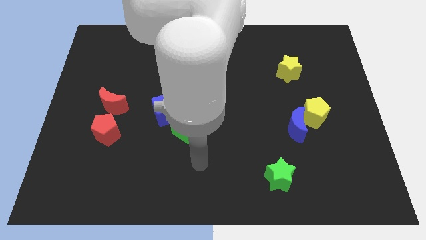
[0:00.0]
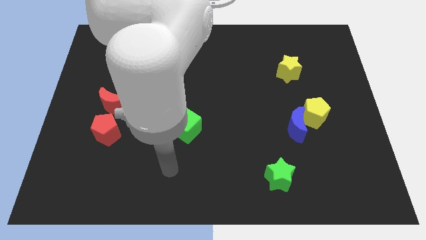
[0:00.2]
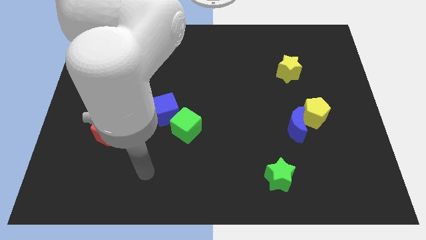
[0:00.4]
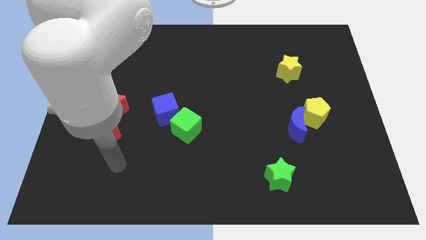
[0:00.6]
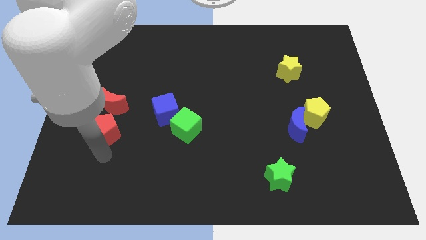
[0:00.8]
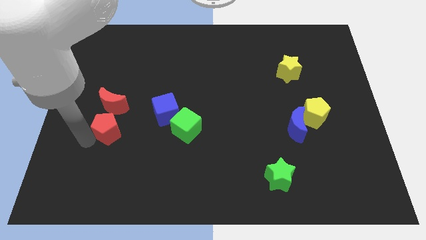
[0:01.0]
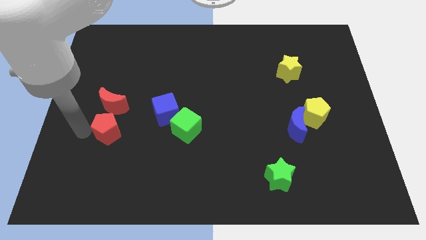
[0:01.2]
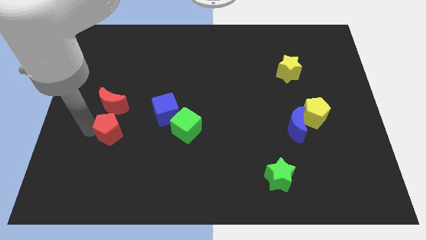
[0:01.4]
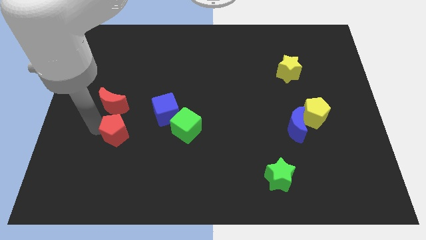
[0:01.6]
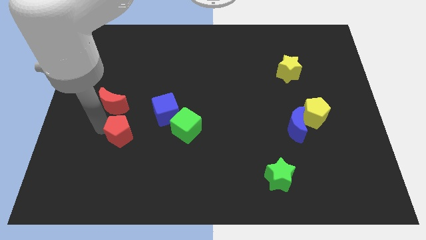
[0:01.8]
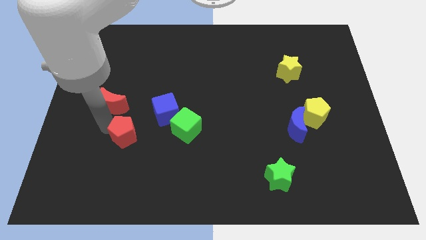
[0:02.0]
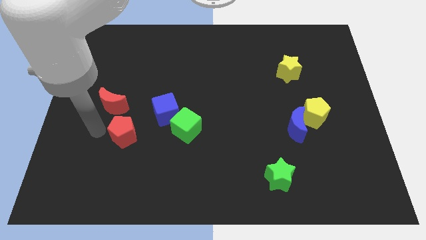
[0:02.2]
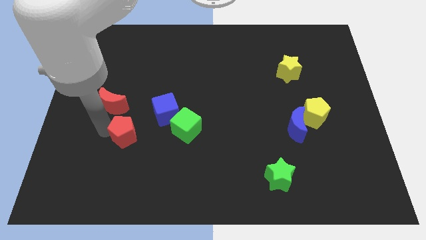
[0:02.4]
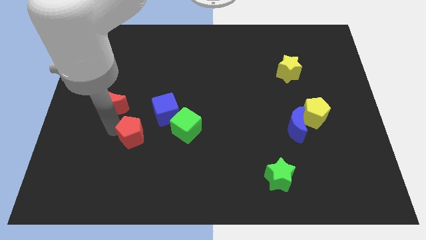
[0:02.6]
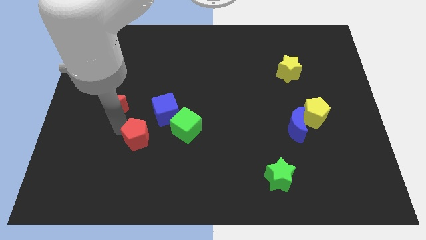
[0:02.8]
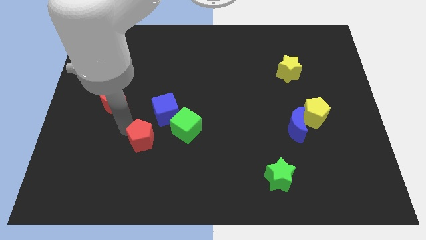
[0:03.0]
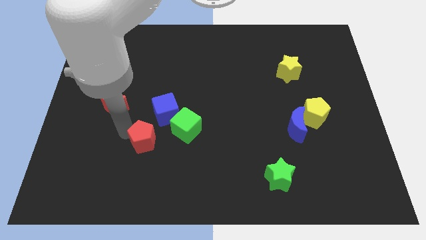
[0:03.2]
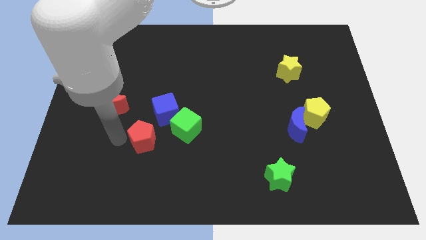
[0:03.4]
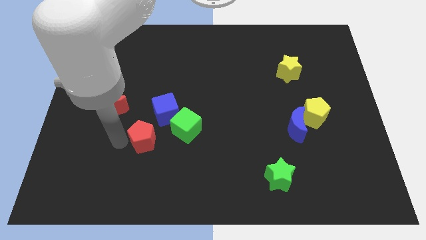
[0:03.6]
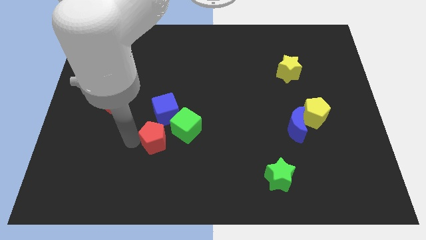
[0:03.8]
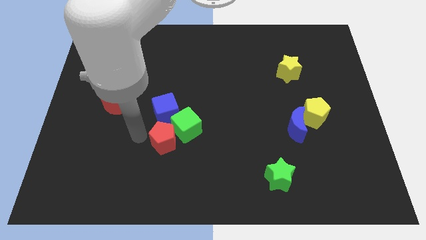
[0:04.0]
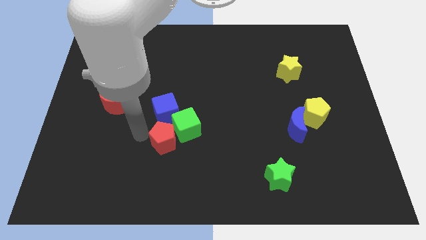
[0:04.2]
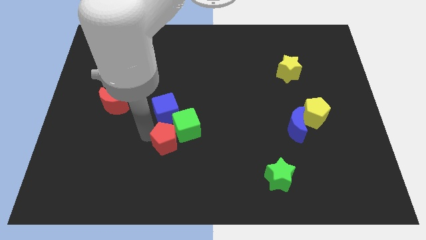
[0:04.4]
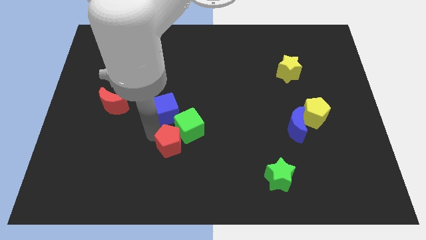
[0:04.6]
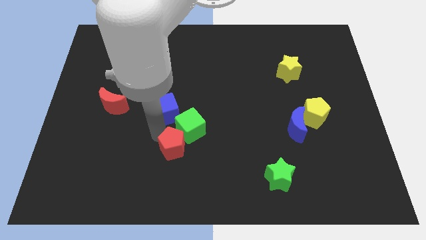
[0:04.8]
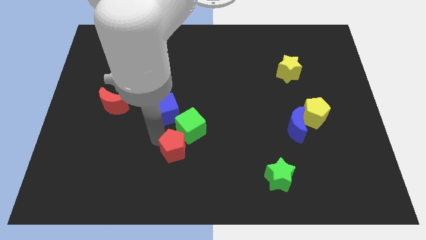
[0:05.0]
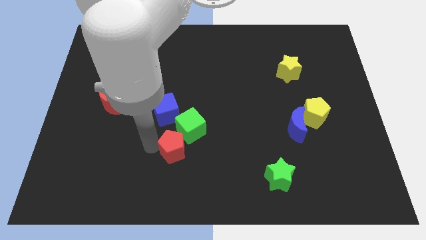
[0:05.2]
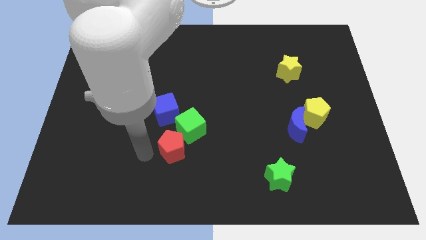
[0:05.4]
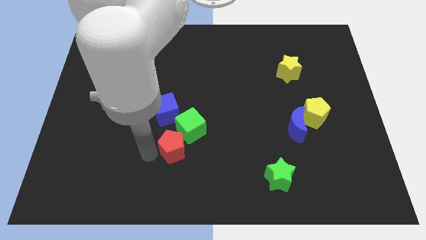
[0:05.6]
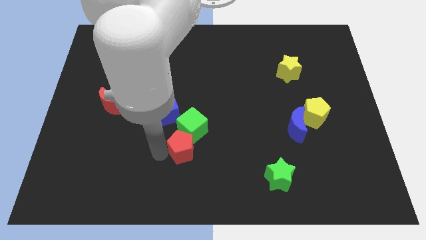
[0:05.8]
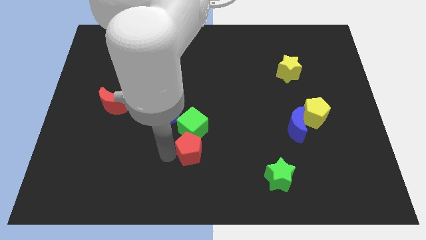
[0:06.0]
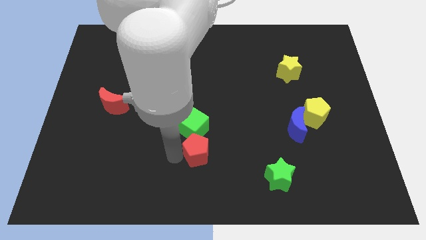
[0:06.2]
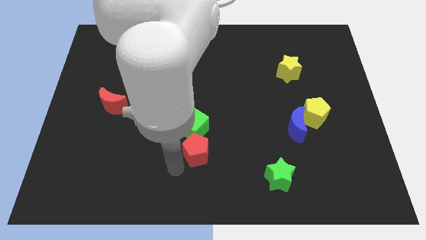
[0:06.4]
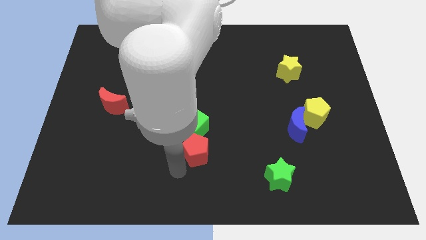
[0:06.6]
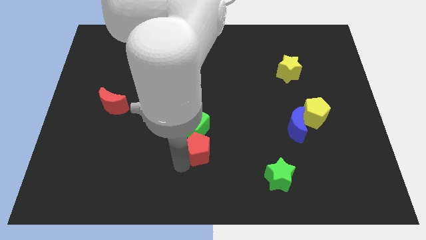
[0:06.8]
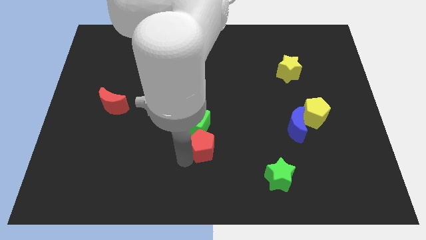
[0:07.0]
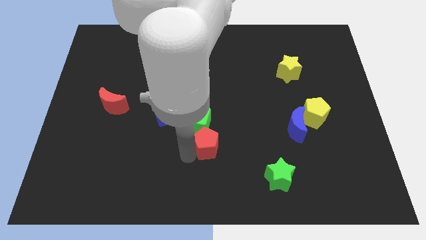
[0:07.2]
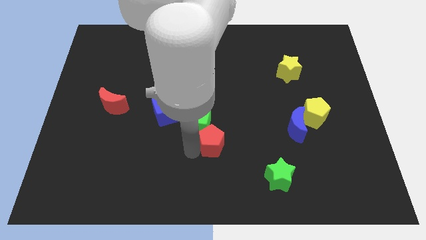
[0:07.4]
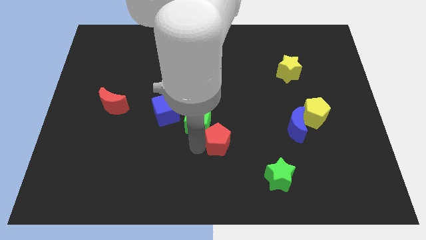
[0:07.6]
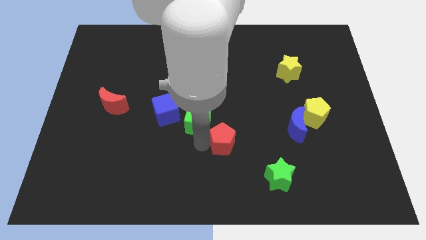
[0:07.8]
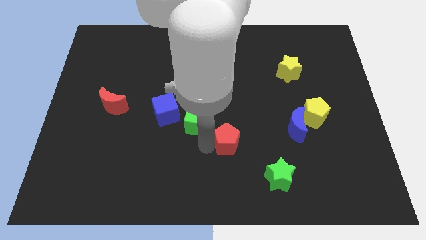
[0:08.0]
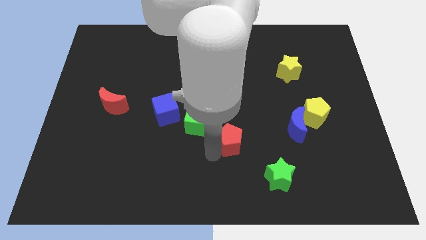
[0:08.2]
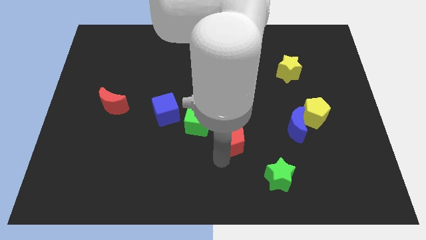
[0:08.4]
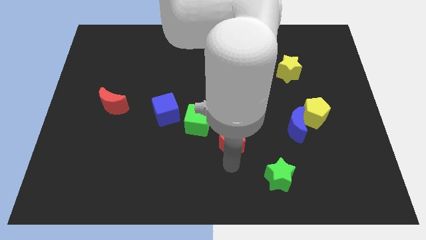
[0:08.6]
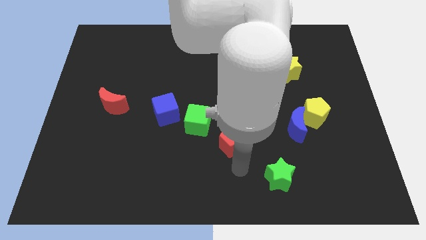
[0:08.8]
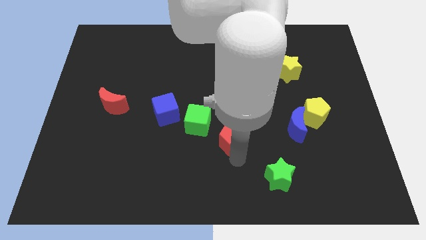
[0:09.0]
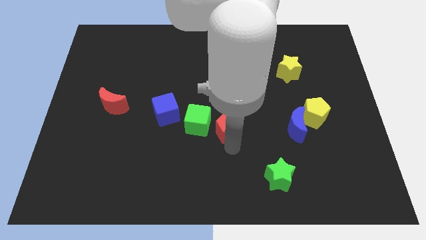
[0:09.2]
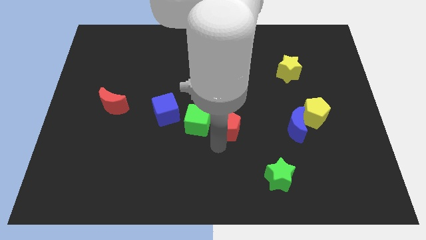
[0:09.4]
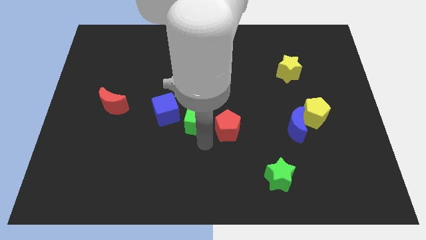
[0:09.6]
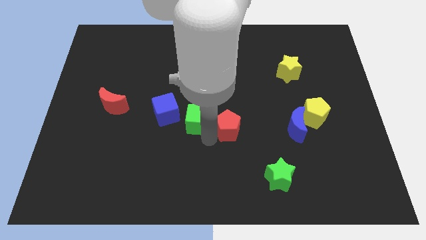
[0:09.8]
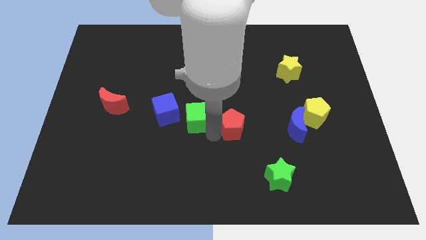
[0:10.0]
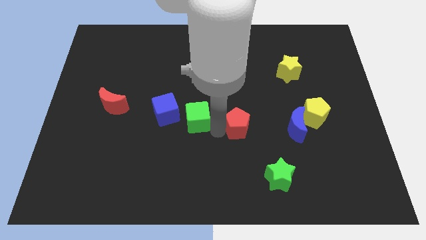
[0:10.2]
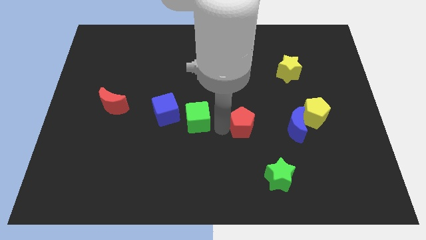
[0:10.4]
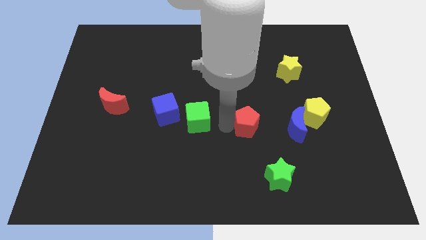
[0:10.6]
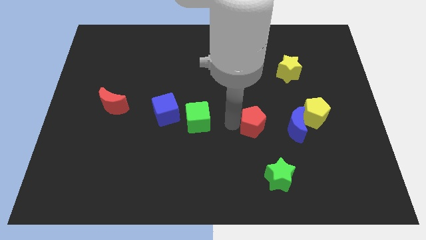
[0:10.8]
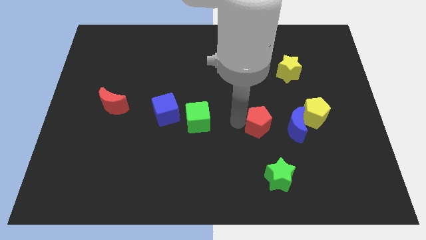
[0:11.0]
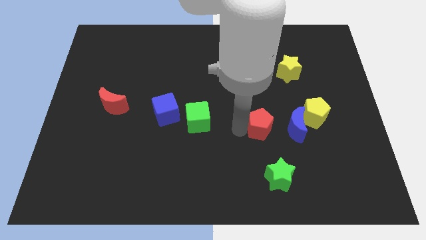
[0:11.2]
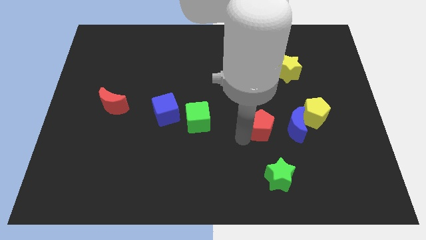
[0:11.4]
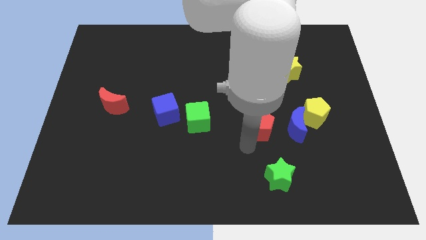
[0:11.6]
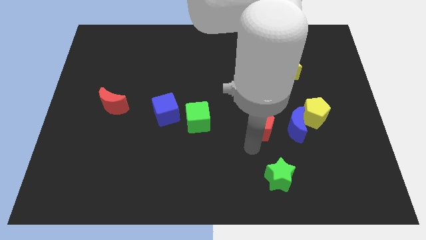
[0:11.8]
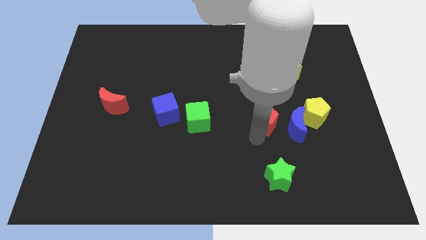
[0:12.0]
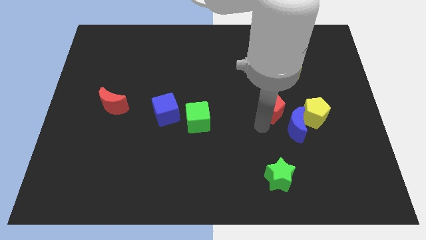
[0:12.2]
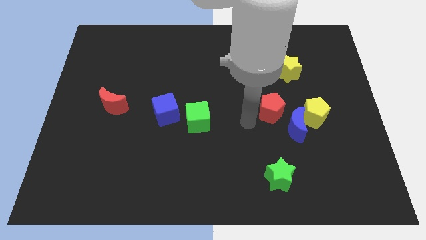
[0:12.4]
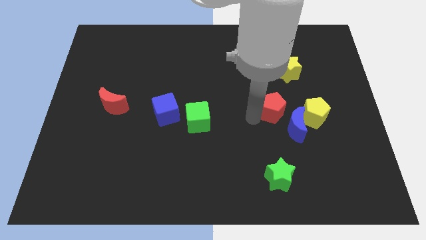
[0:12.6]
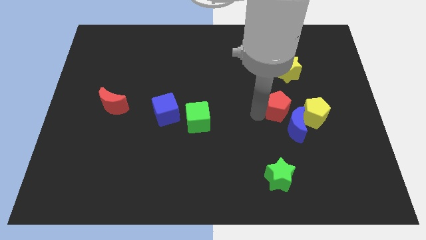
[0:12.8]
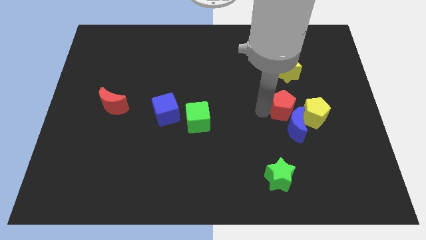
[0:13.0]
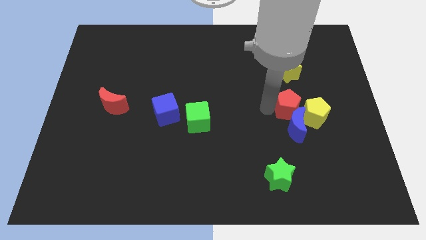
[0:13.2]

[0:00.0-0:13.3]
move the red pentagon to the top right of the blue moon
